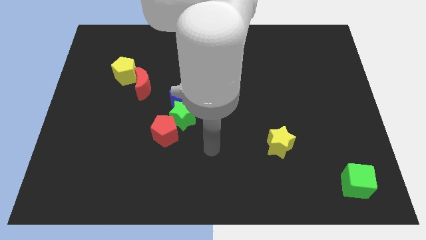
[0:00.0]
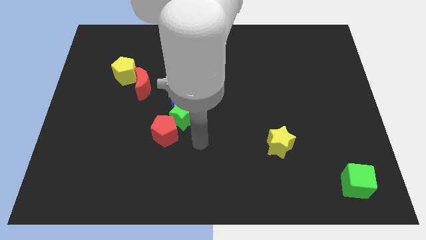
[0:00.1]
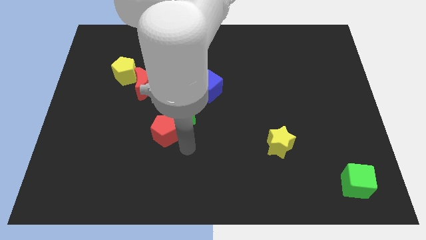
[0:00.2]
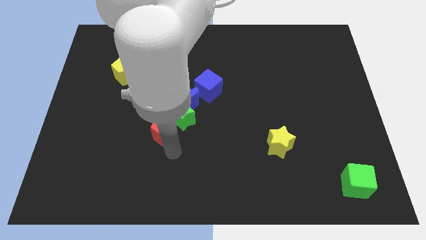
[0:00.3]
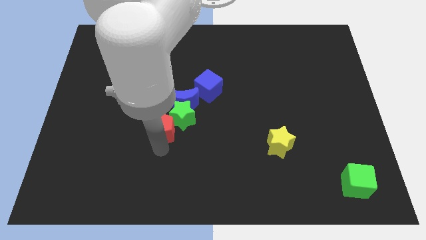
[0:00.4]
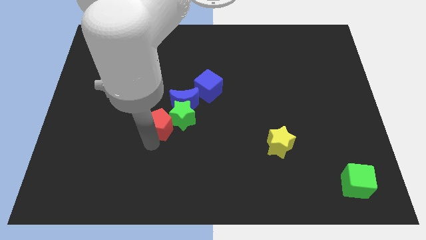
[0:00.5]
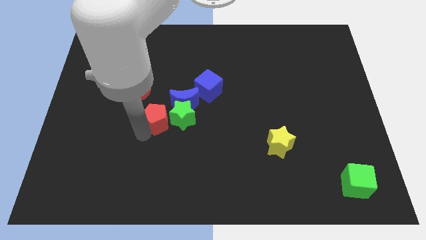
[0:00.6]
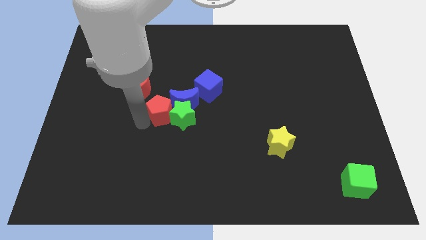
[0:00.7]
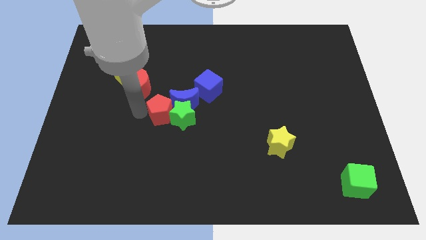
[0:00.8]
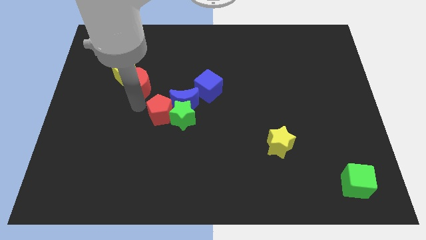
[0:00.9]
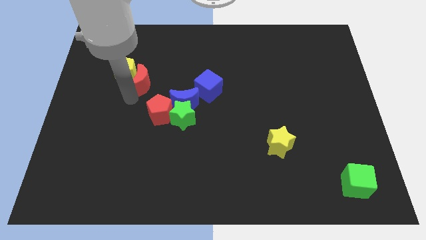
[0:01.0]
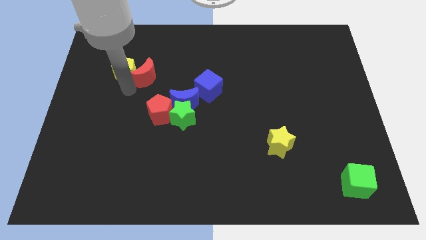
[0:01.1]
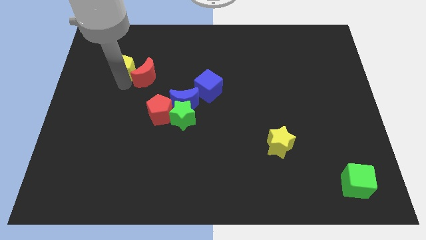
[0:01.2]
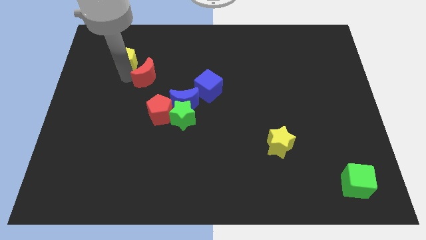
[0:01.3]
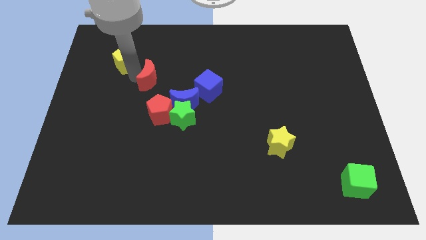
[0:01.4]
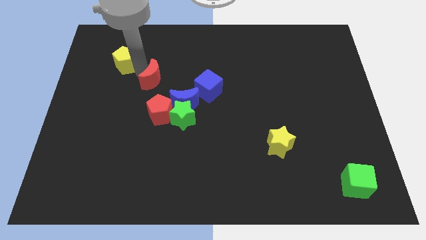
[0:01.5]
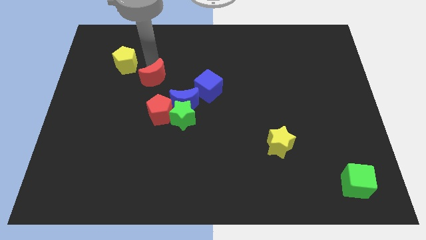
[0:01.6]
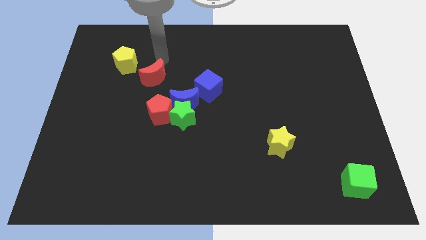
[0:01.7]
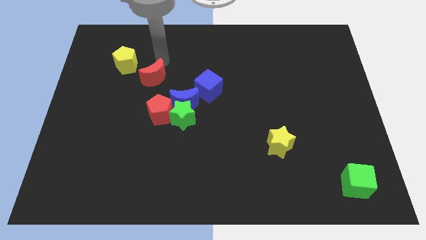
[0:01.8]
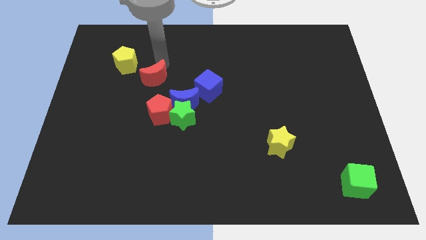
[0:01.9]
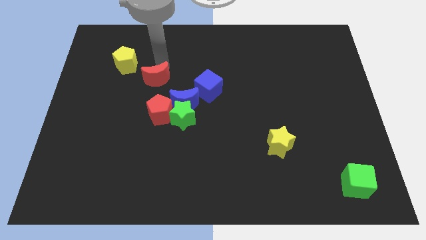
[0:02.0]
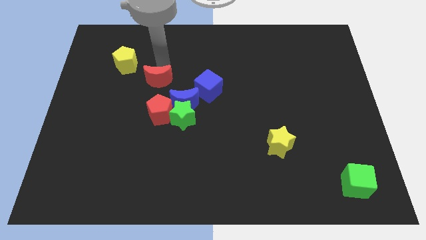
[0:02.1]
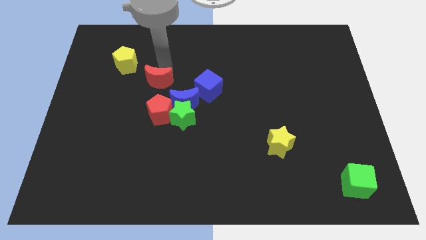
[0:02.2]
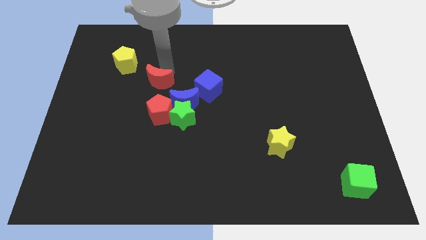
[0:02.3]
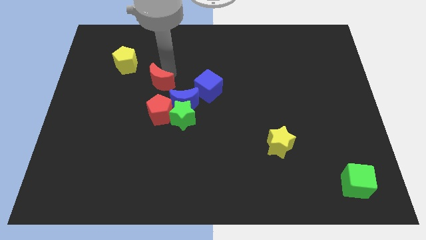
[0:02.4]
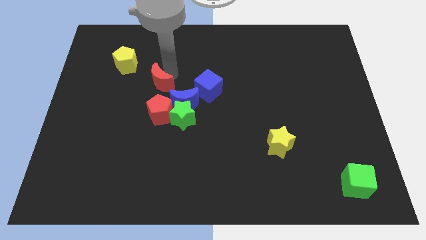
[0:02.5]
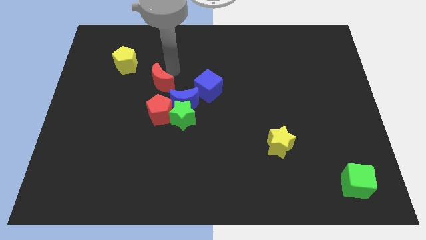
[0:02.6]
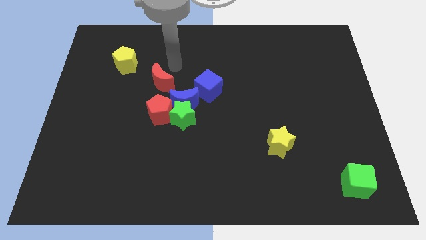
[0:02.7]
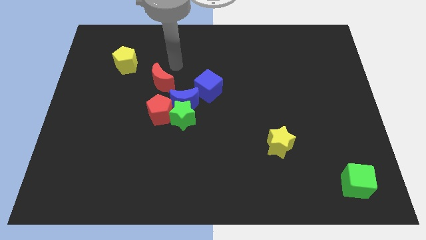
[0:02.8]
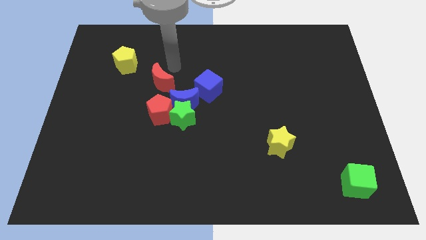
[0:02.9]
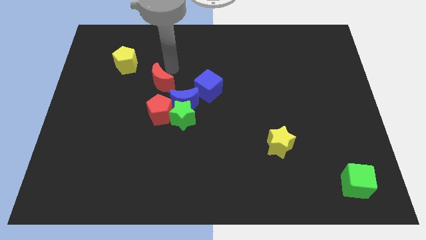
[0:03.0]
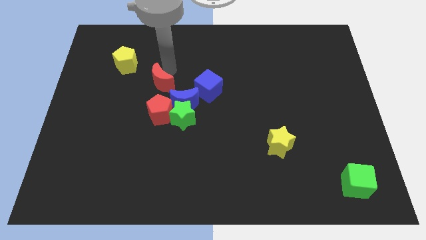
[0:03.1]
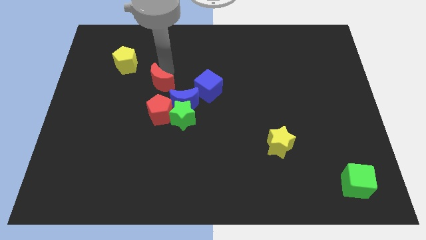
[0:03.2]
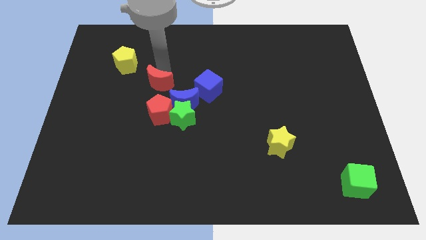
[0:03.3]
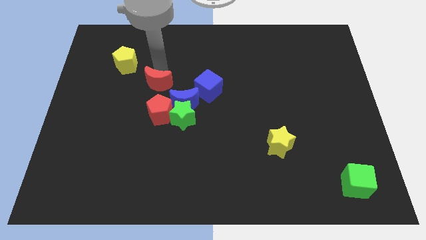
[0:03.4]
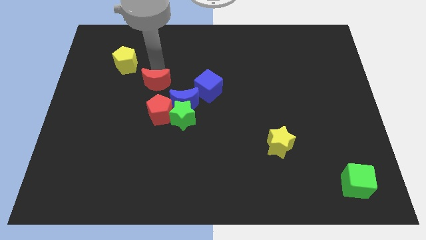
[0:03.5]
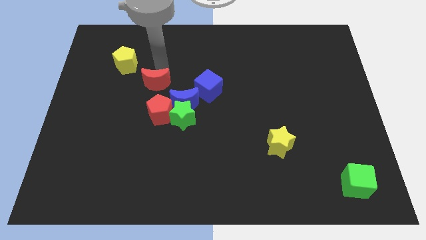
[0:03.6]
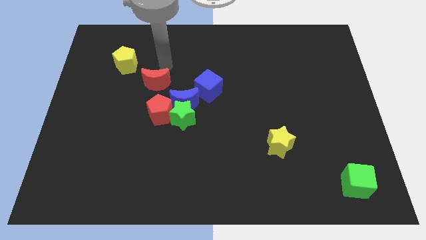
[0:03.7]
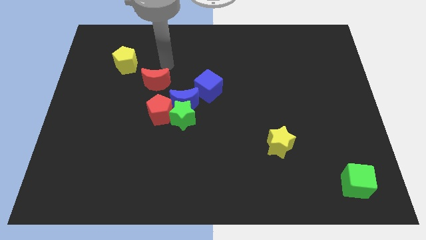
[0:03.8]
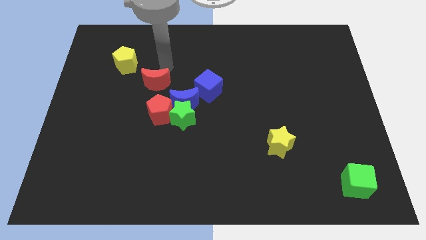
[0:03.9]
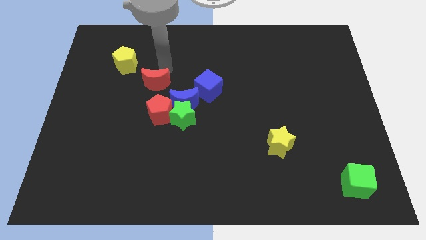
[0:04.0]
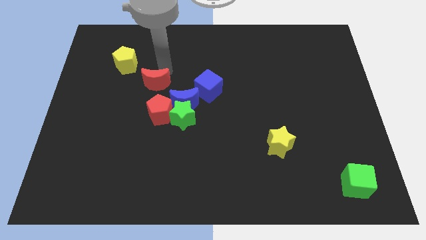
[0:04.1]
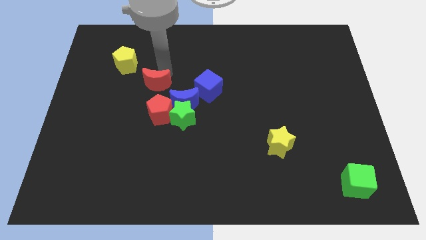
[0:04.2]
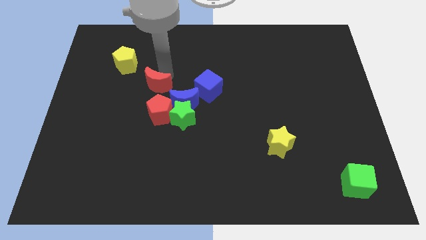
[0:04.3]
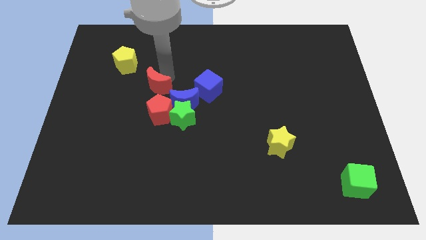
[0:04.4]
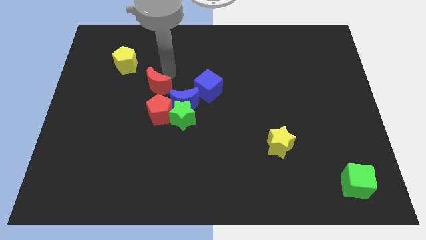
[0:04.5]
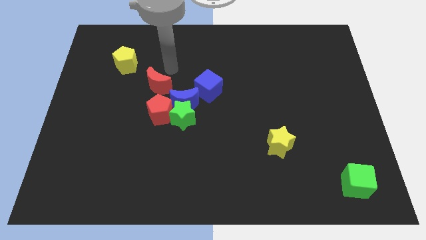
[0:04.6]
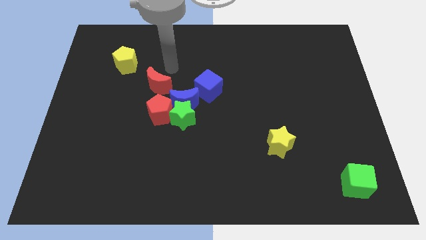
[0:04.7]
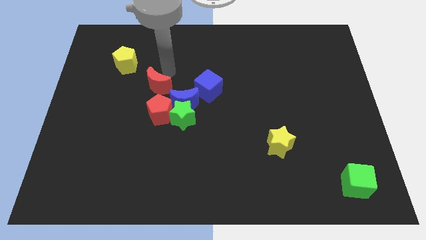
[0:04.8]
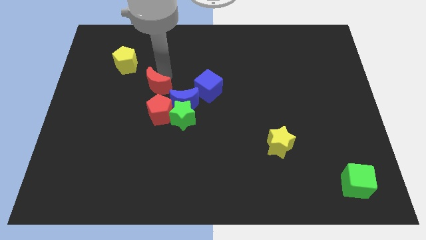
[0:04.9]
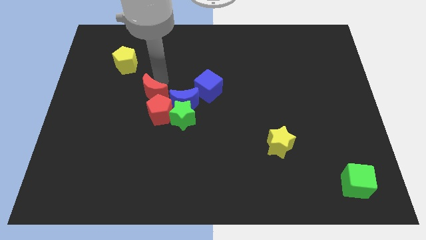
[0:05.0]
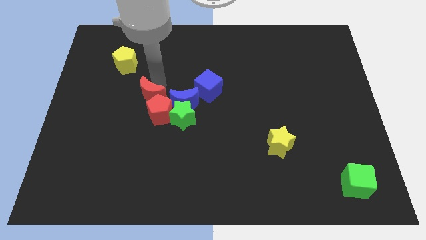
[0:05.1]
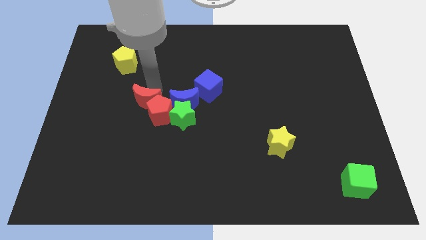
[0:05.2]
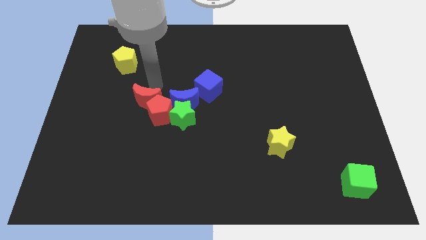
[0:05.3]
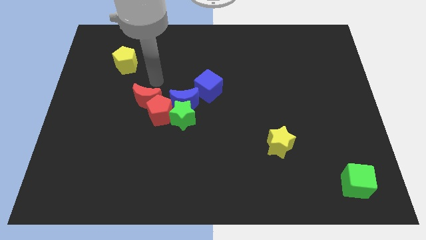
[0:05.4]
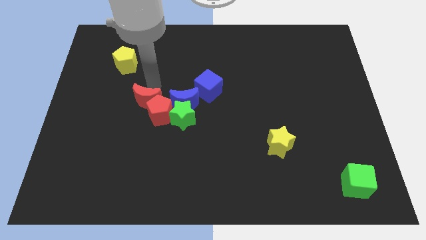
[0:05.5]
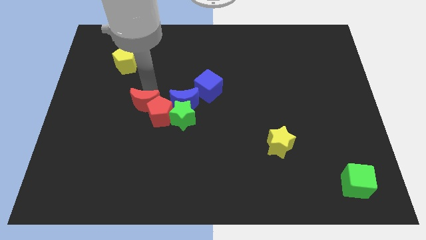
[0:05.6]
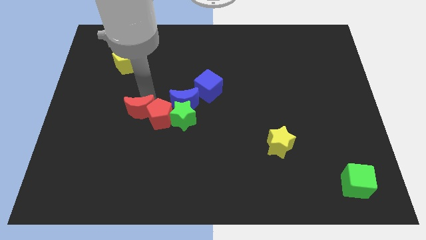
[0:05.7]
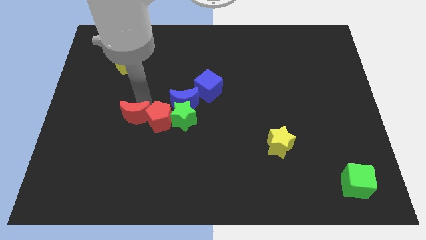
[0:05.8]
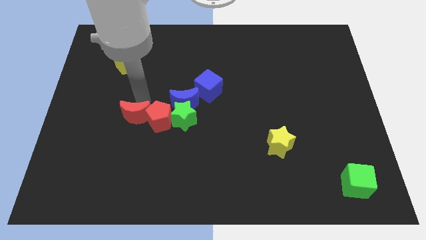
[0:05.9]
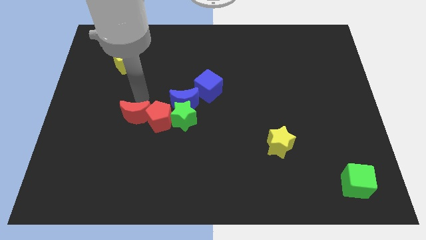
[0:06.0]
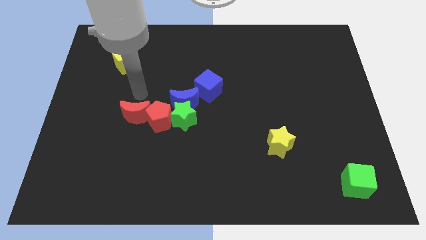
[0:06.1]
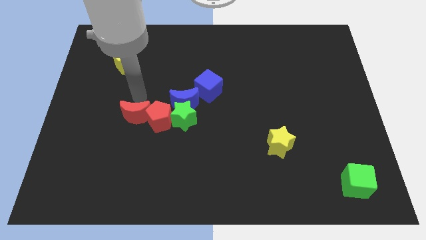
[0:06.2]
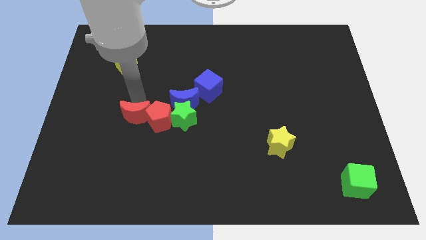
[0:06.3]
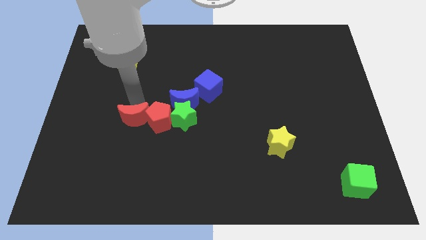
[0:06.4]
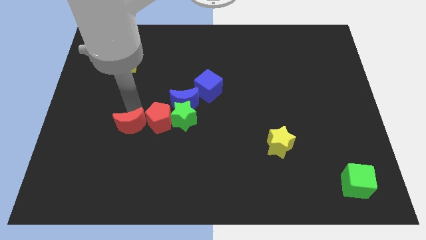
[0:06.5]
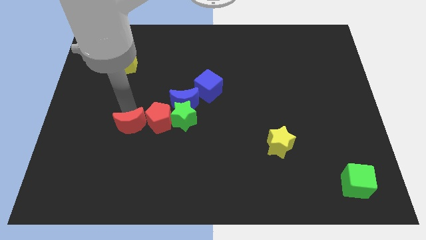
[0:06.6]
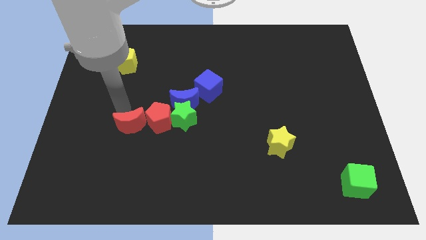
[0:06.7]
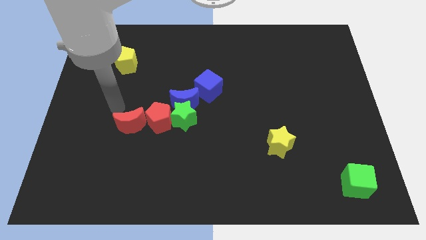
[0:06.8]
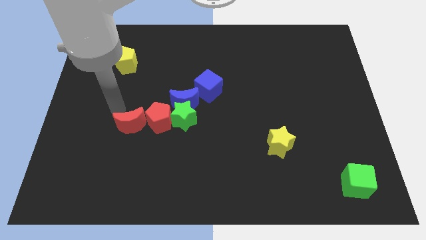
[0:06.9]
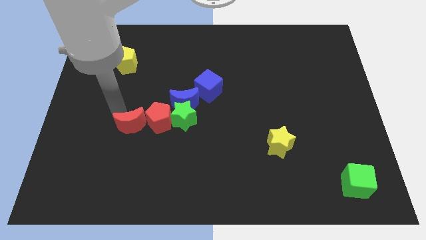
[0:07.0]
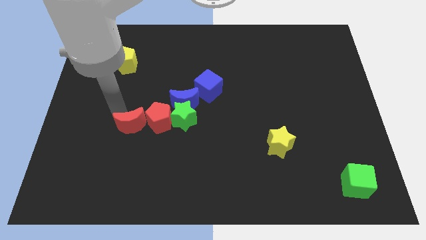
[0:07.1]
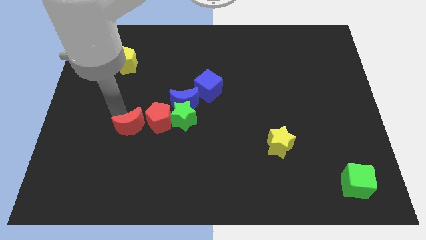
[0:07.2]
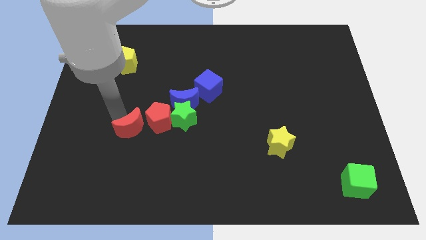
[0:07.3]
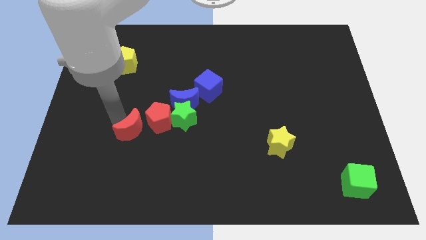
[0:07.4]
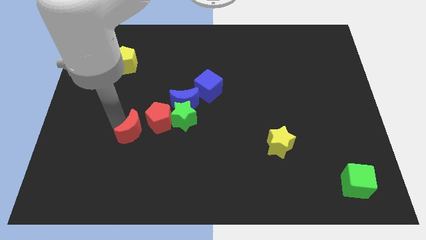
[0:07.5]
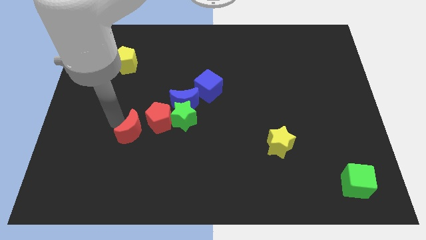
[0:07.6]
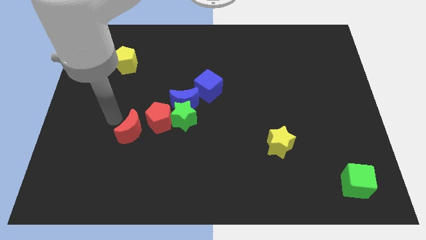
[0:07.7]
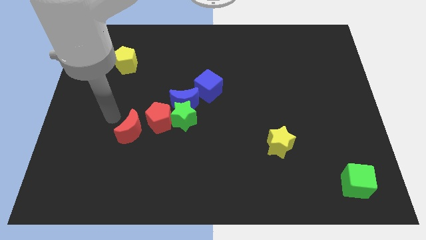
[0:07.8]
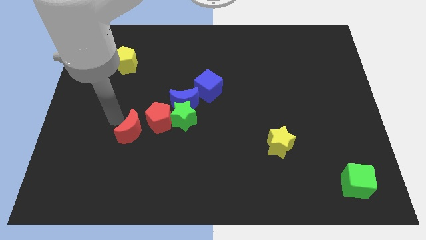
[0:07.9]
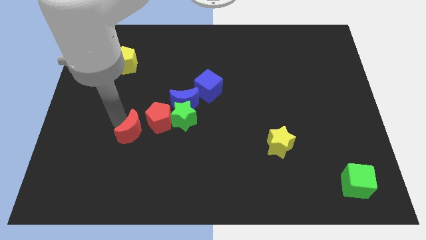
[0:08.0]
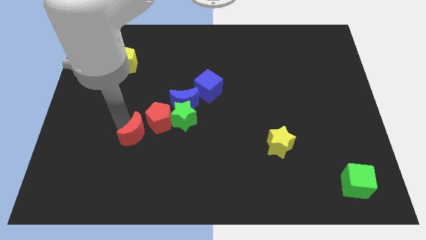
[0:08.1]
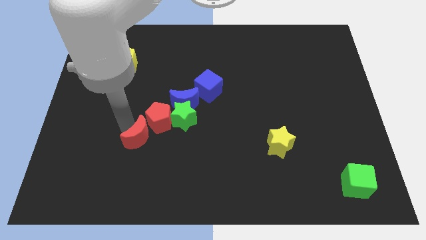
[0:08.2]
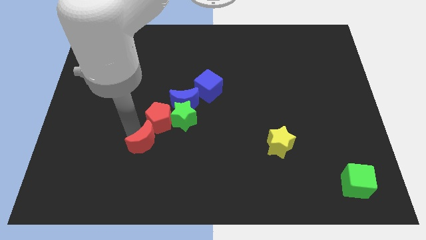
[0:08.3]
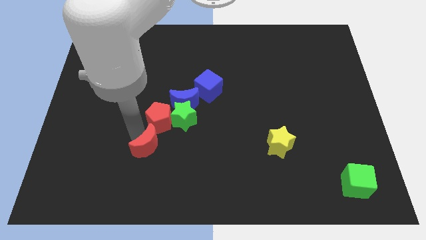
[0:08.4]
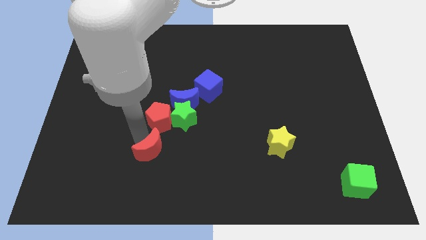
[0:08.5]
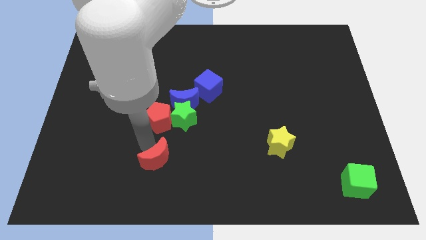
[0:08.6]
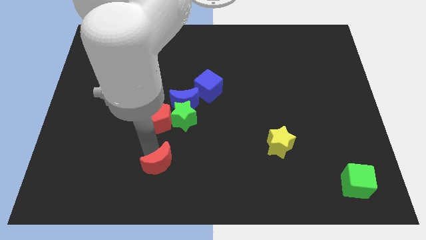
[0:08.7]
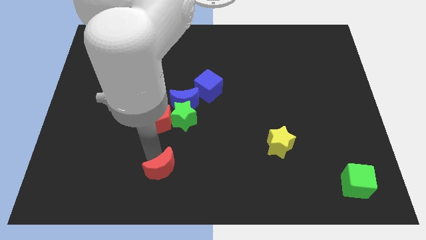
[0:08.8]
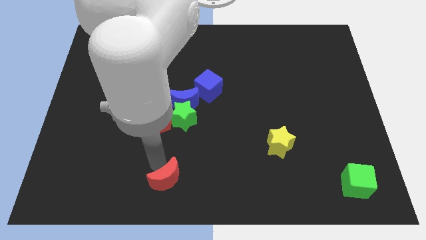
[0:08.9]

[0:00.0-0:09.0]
slide the red moon to the bottom
